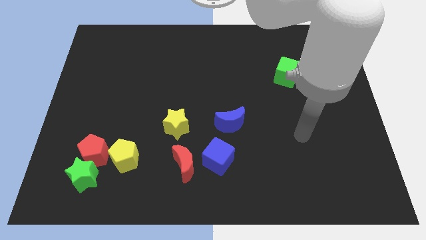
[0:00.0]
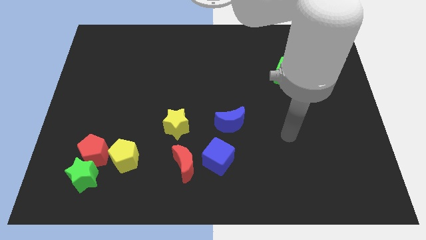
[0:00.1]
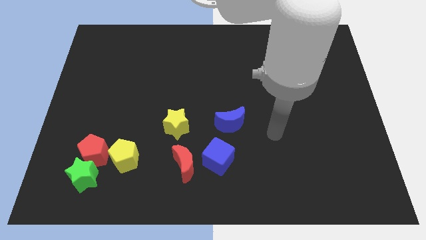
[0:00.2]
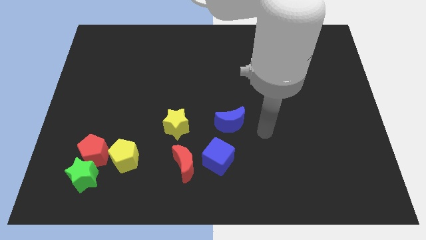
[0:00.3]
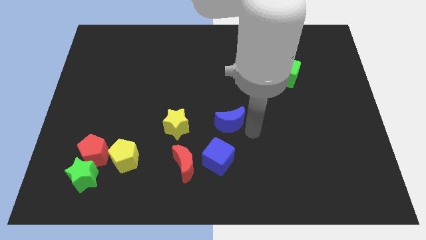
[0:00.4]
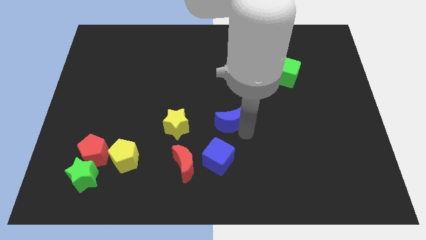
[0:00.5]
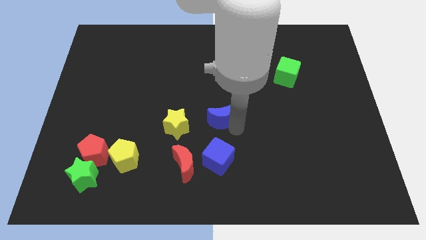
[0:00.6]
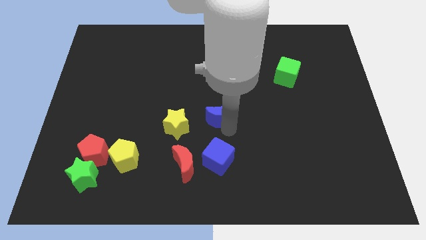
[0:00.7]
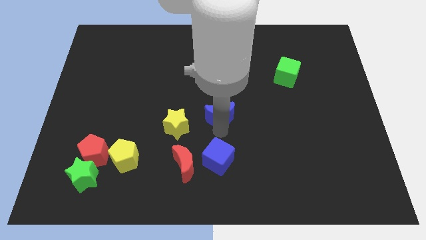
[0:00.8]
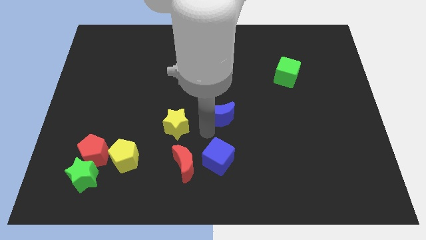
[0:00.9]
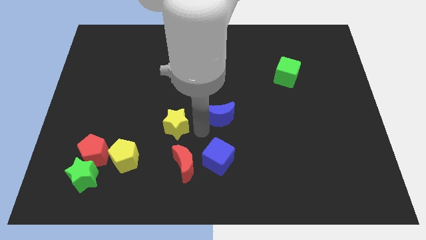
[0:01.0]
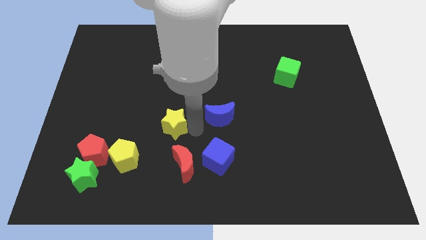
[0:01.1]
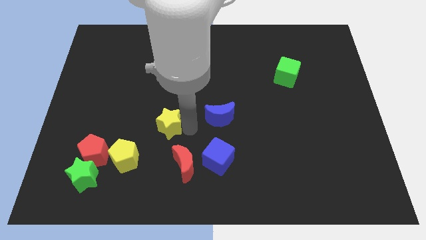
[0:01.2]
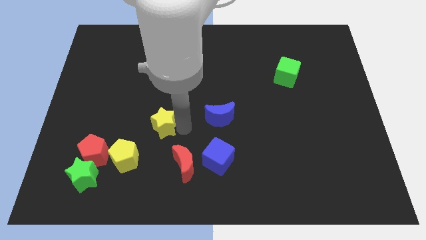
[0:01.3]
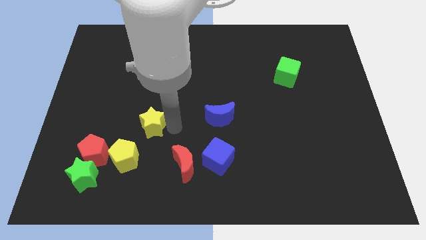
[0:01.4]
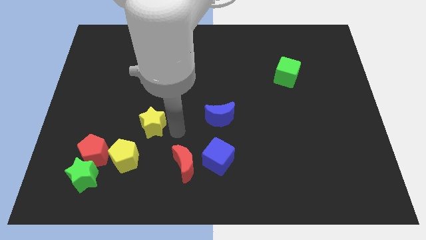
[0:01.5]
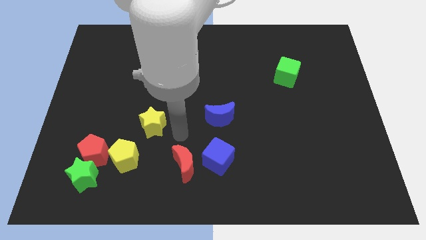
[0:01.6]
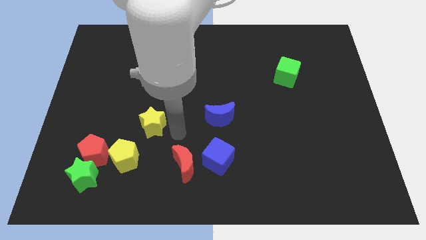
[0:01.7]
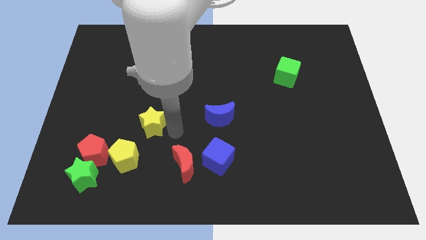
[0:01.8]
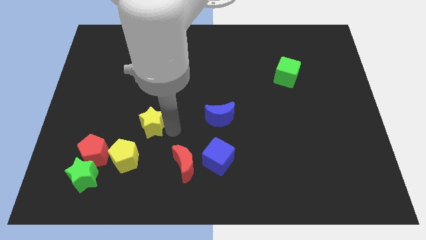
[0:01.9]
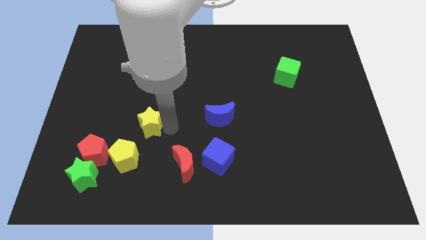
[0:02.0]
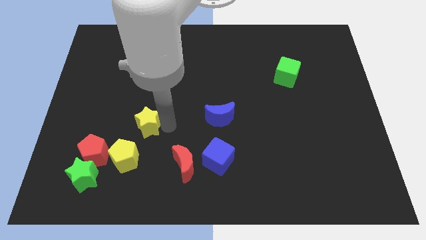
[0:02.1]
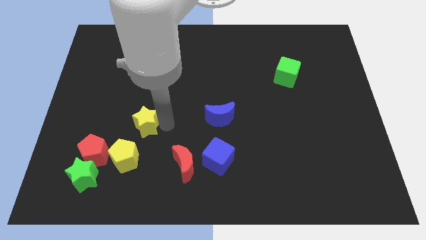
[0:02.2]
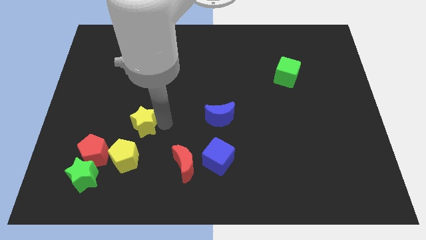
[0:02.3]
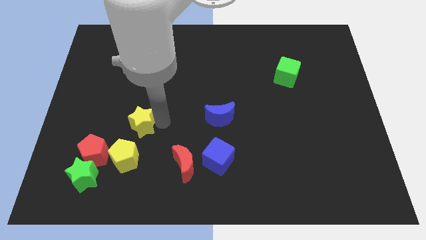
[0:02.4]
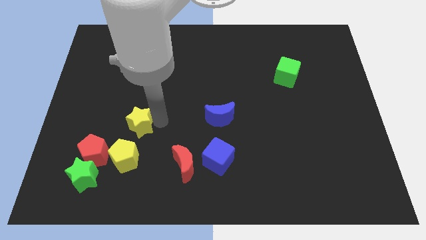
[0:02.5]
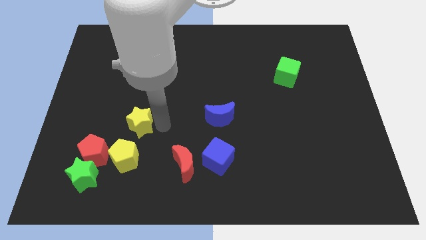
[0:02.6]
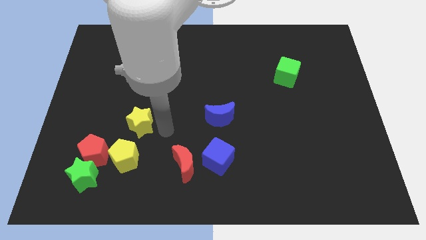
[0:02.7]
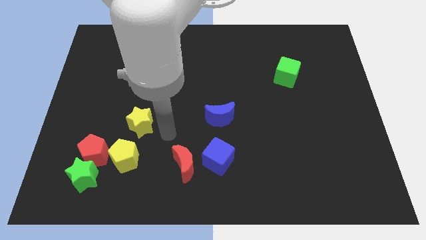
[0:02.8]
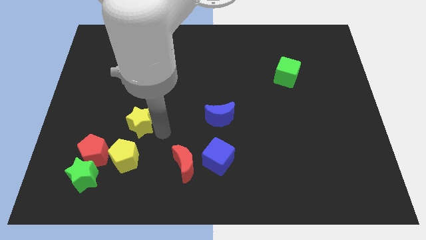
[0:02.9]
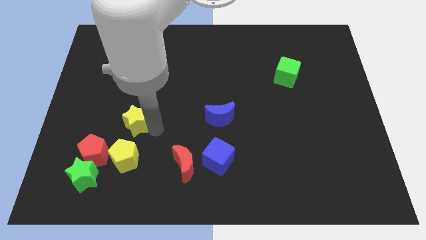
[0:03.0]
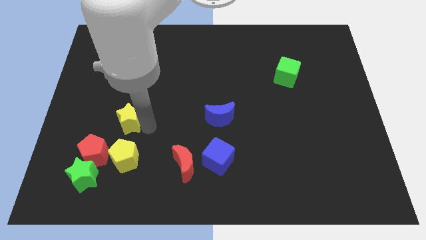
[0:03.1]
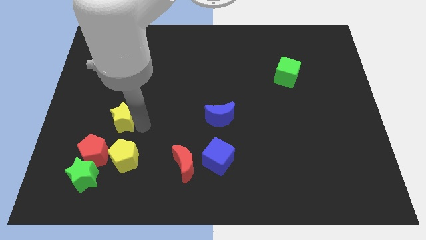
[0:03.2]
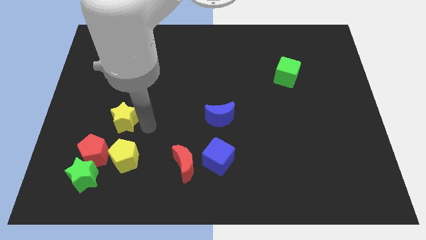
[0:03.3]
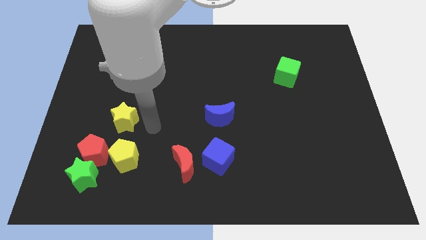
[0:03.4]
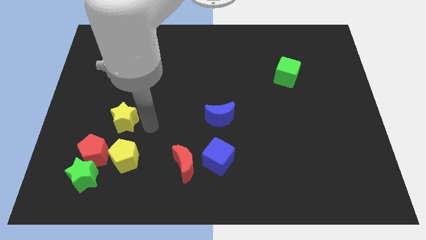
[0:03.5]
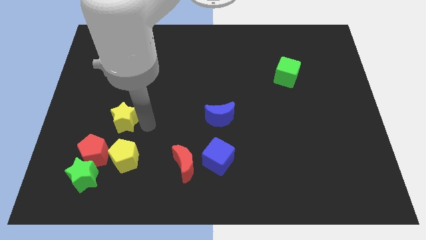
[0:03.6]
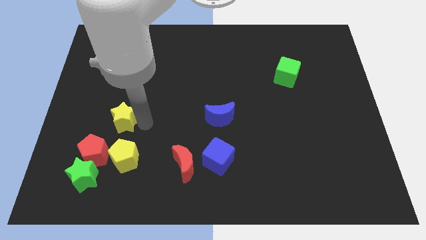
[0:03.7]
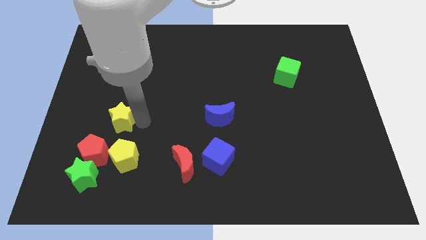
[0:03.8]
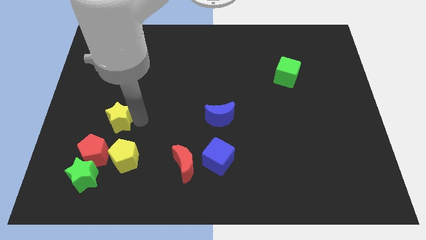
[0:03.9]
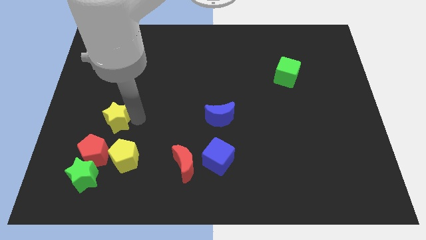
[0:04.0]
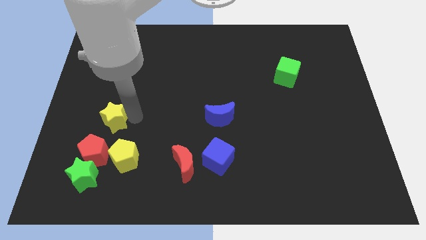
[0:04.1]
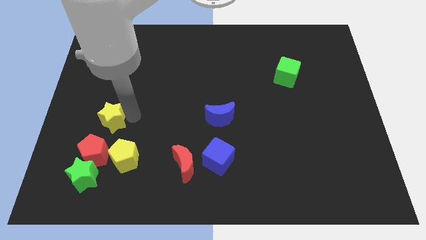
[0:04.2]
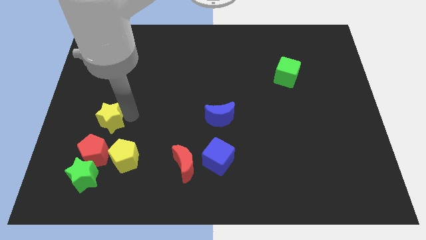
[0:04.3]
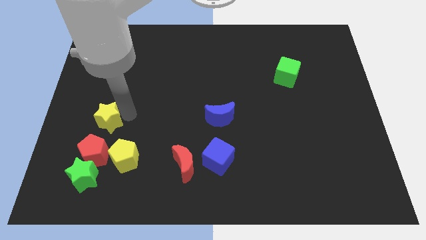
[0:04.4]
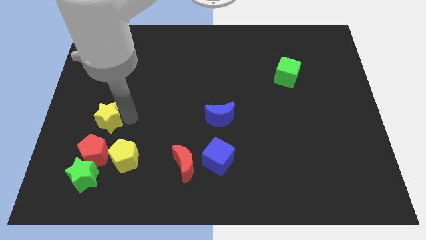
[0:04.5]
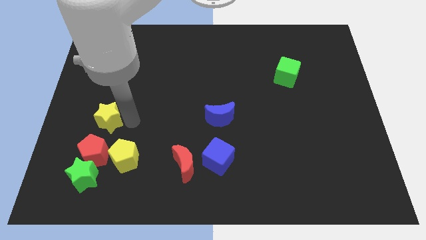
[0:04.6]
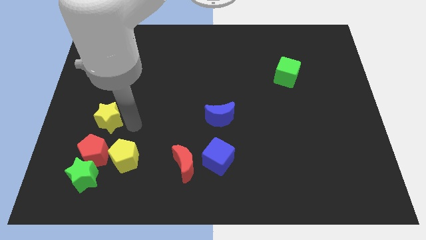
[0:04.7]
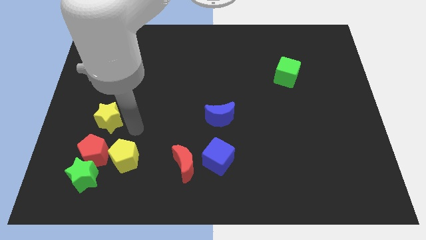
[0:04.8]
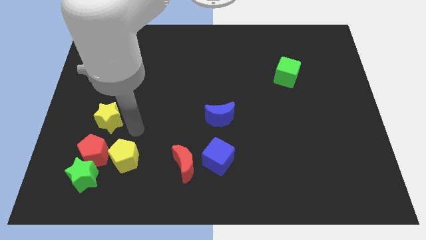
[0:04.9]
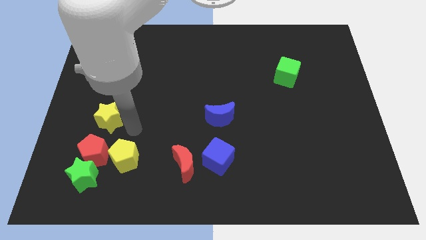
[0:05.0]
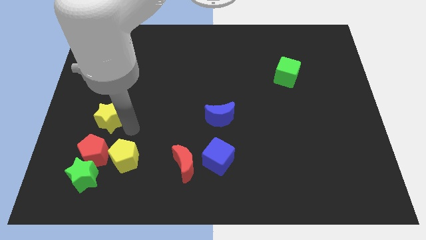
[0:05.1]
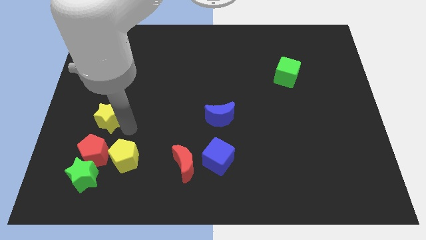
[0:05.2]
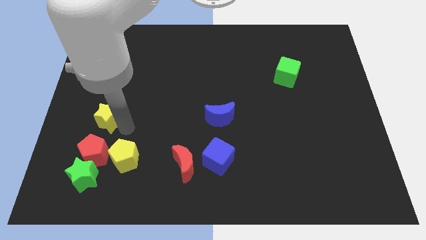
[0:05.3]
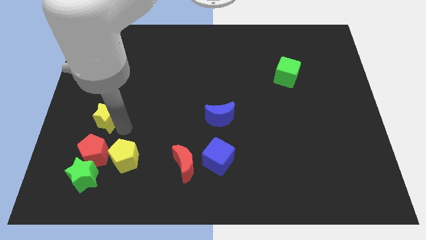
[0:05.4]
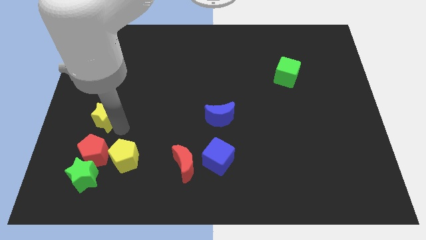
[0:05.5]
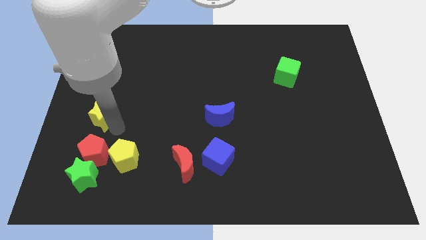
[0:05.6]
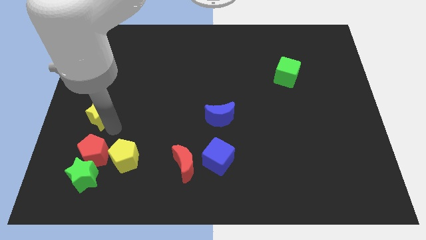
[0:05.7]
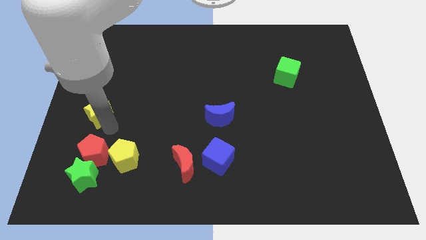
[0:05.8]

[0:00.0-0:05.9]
slide the yellow star to the left side of the board
